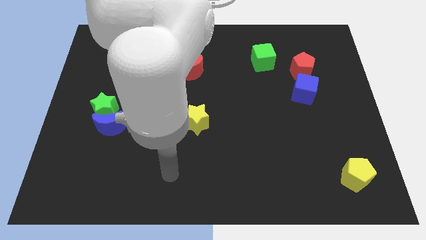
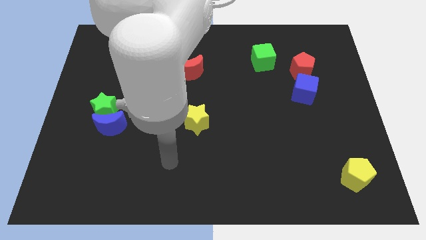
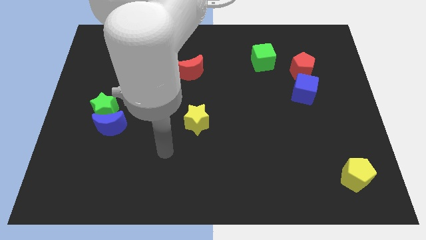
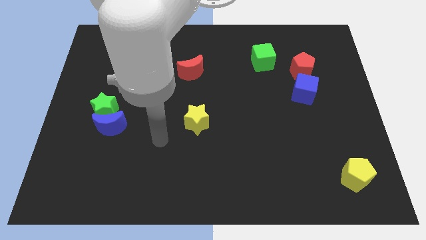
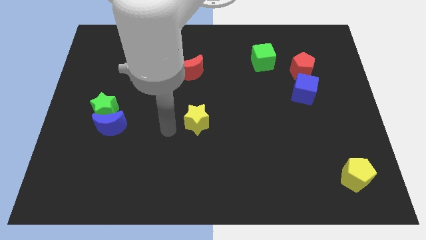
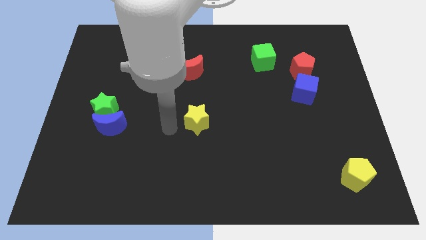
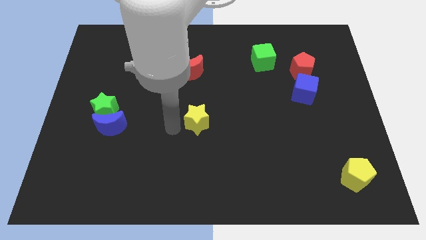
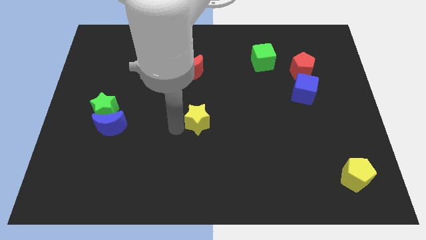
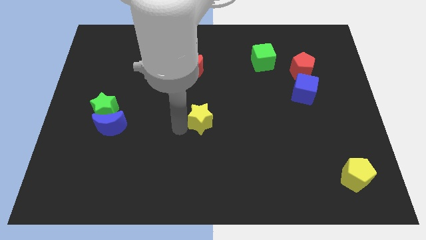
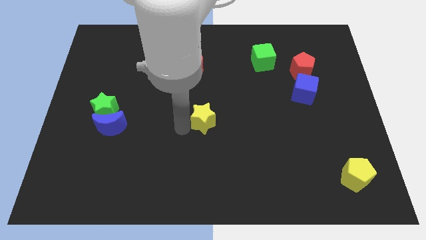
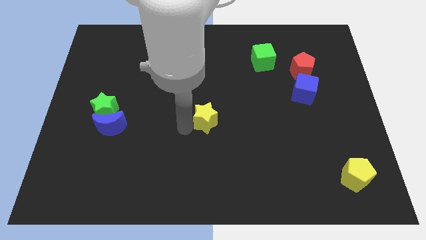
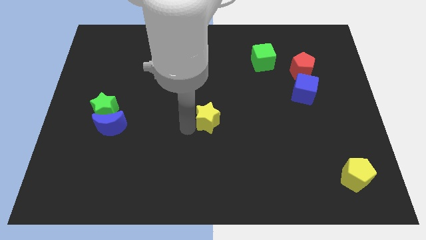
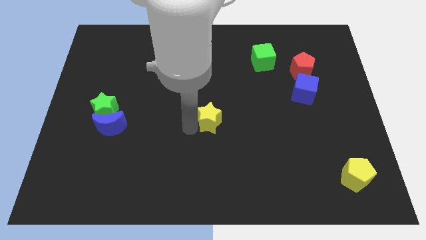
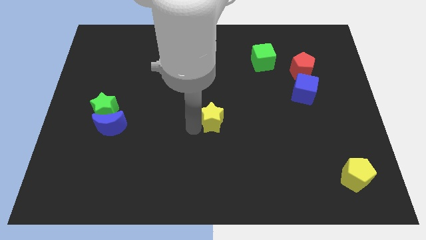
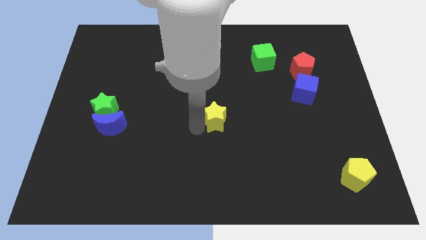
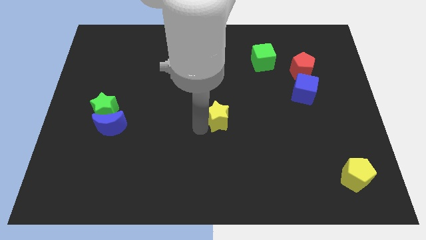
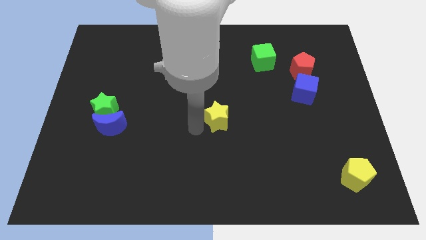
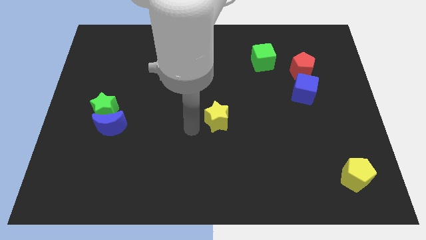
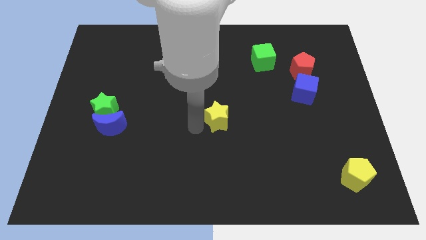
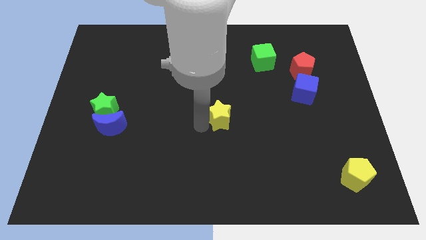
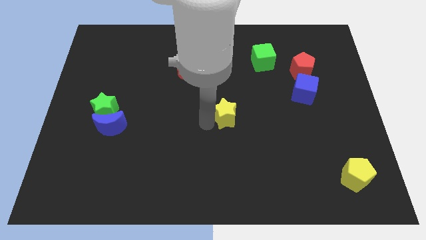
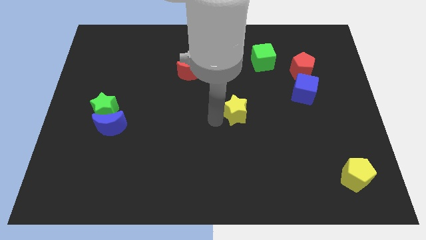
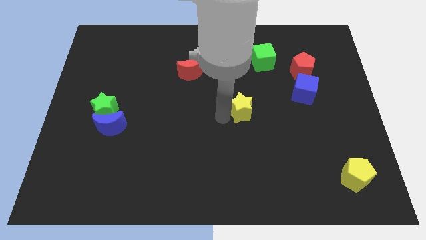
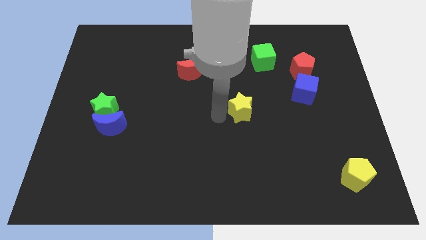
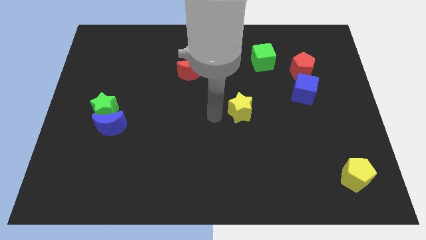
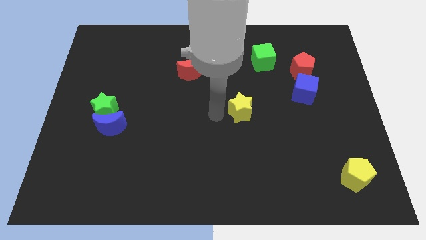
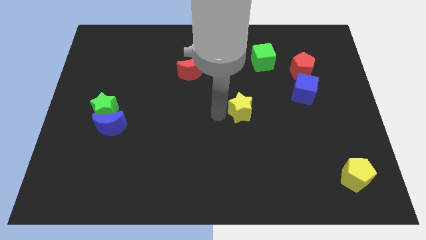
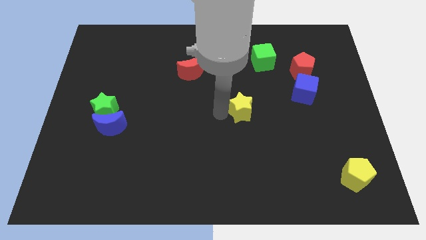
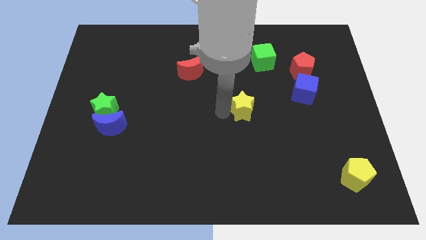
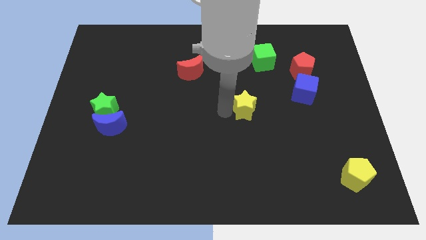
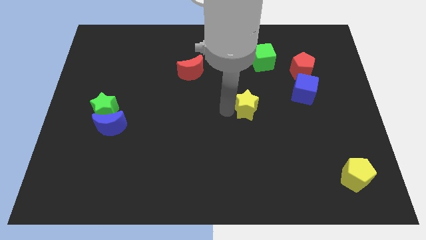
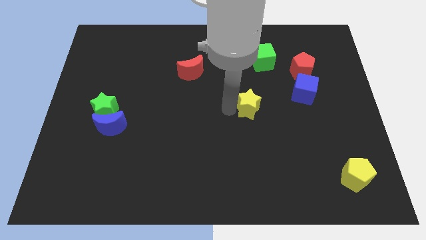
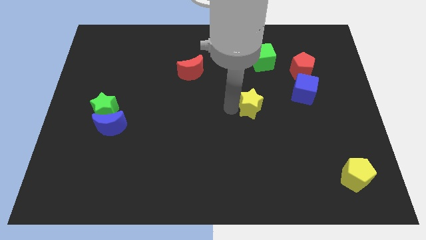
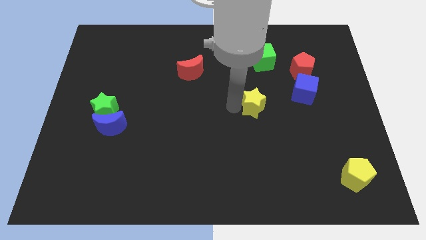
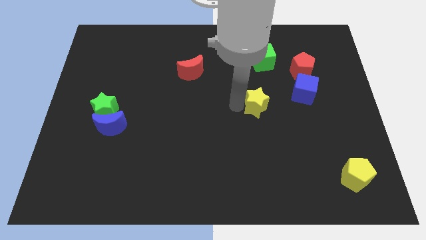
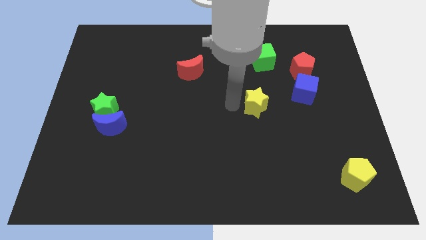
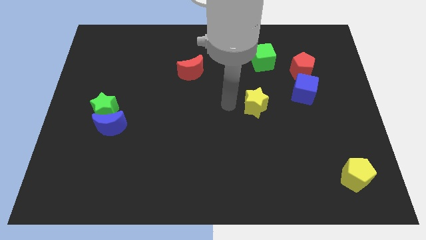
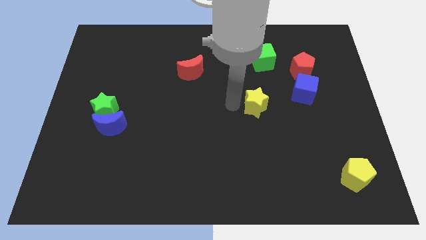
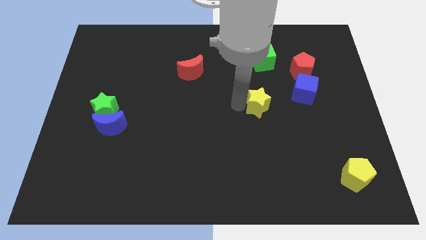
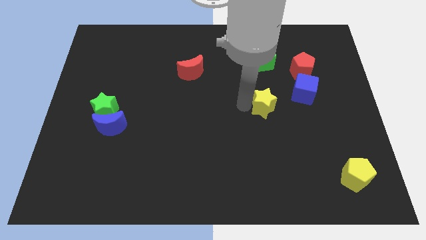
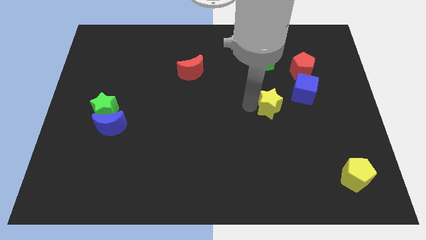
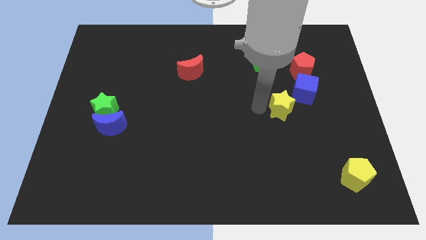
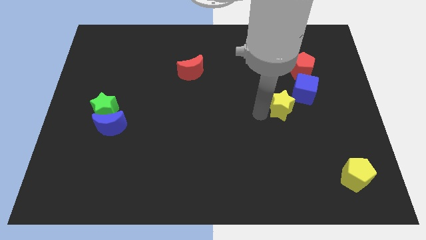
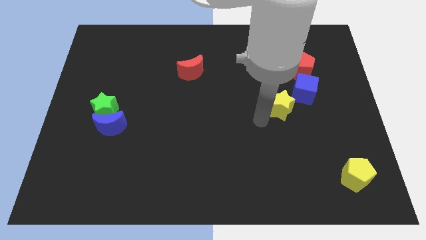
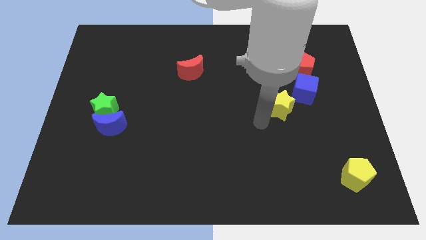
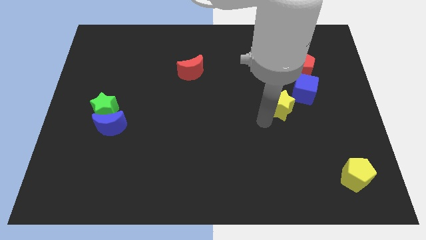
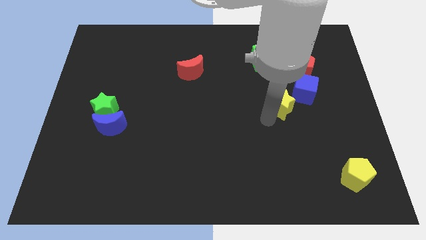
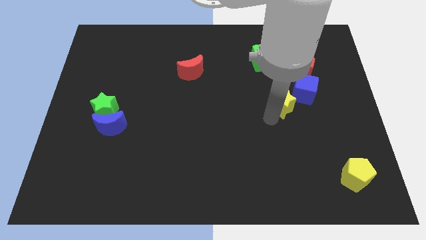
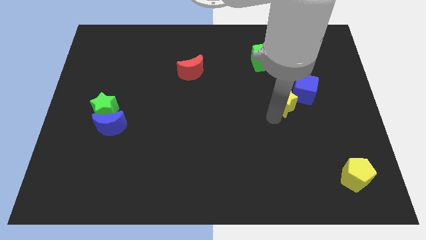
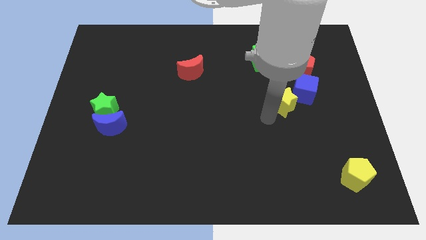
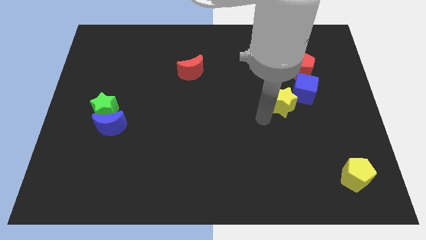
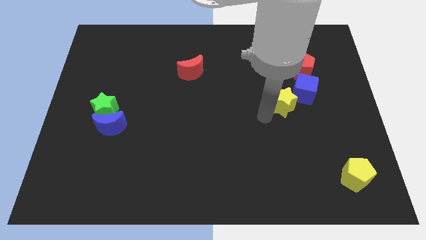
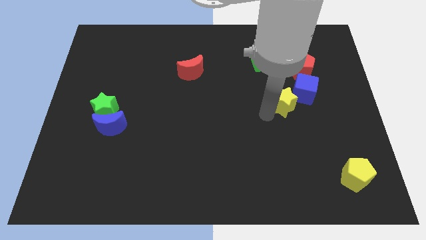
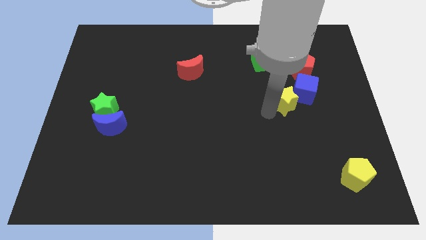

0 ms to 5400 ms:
slide the yellow star to the blue cube

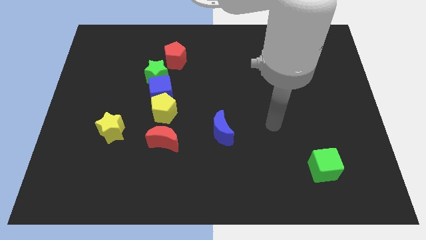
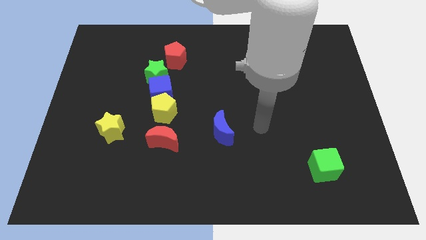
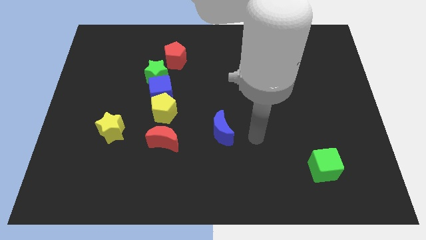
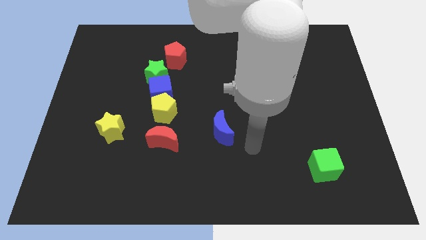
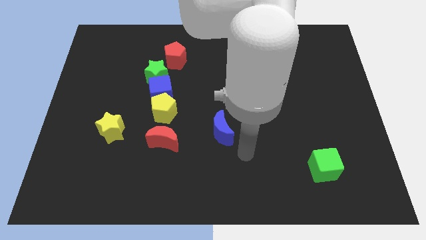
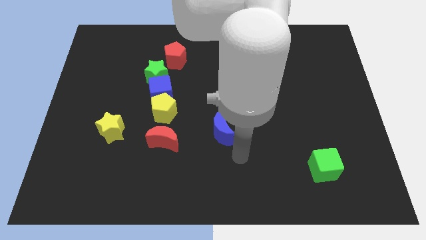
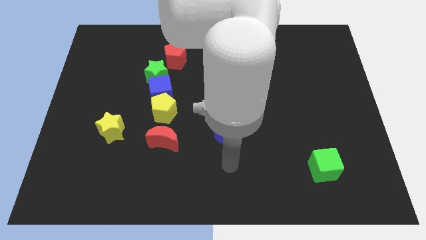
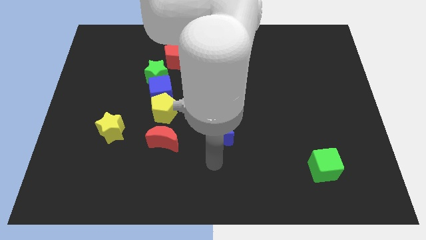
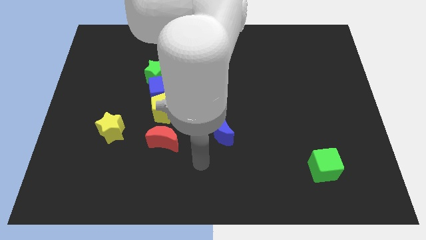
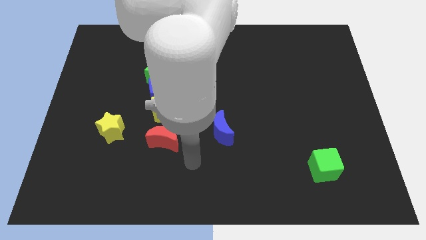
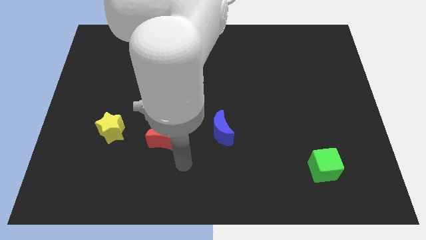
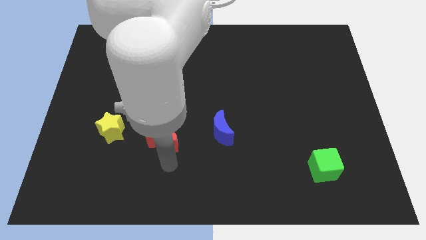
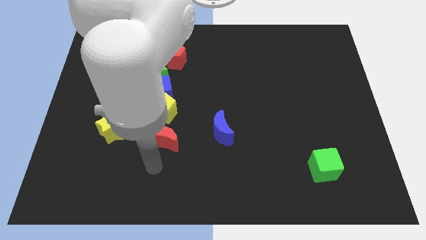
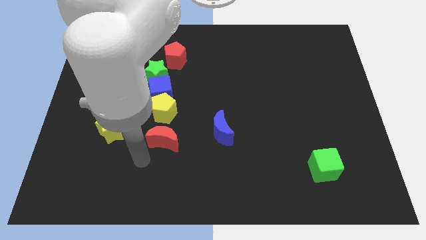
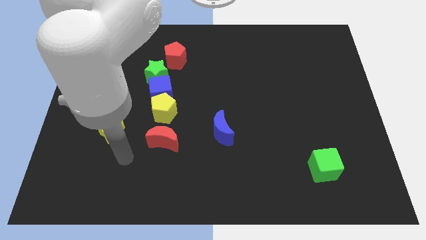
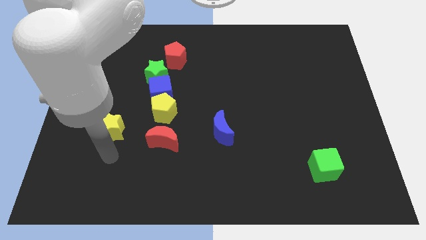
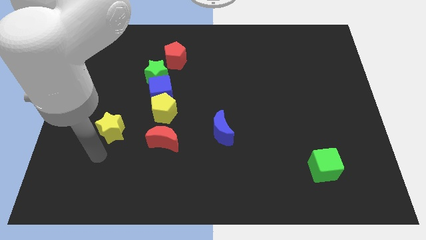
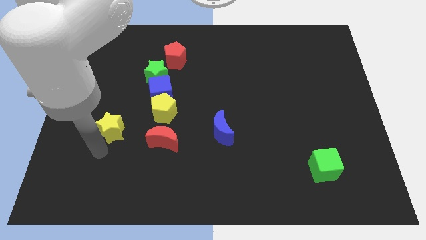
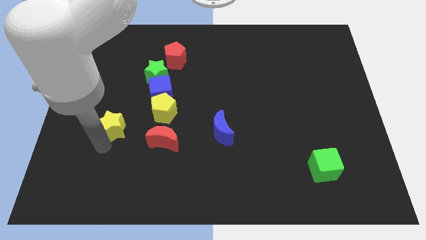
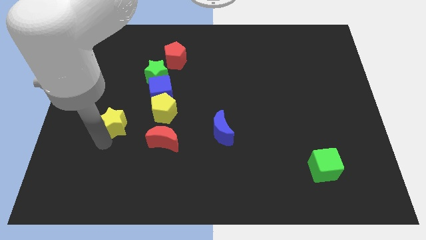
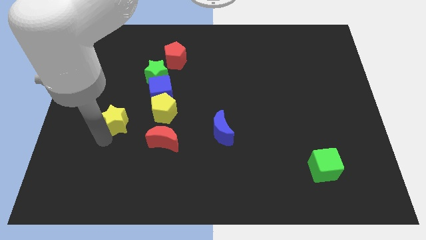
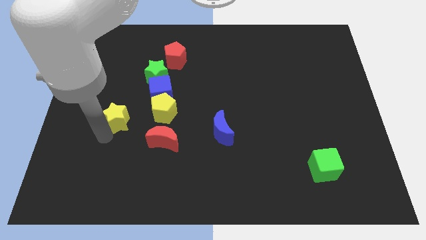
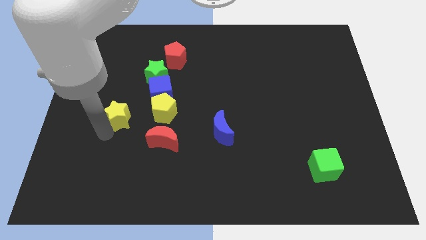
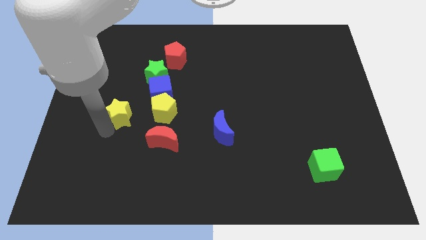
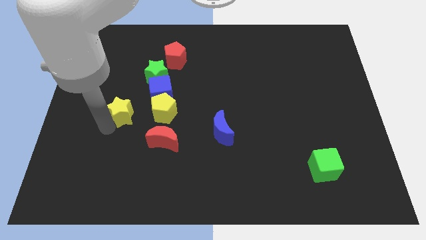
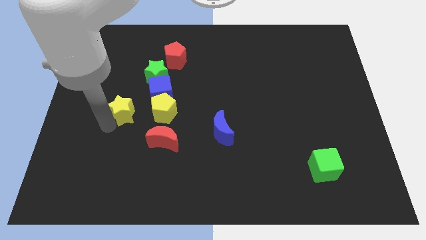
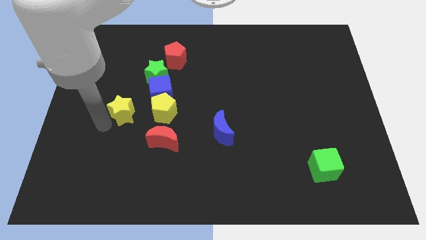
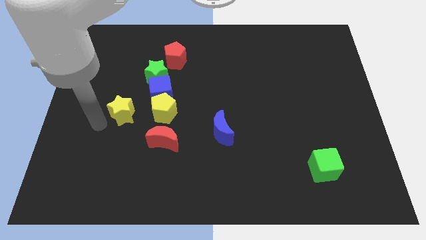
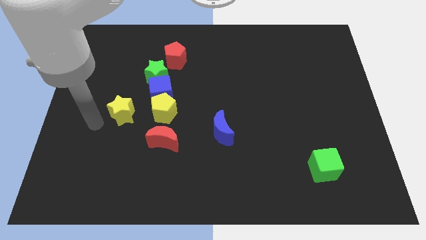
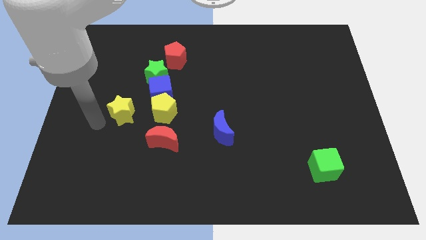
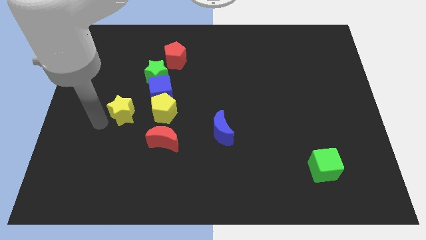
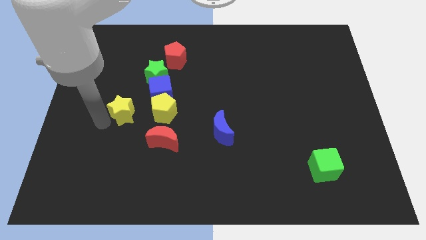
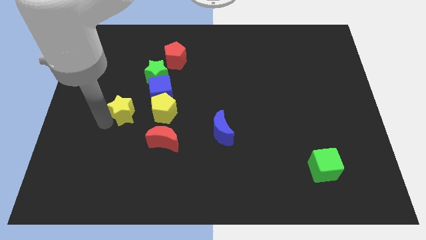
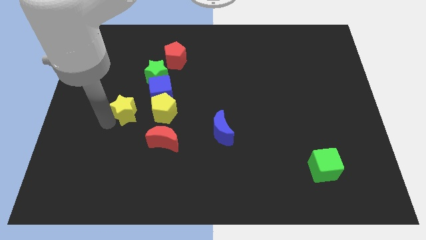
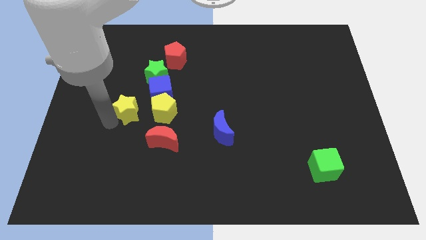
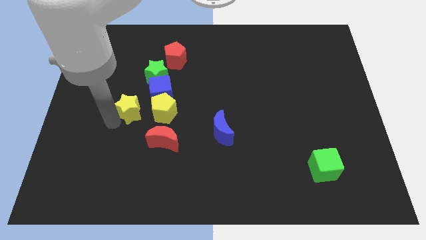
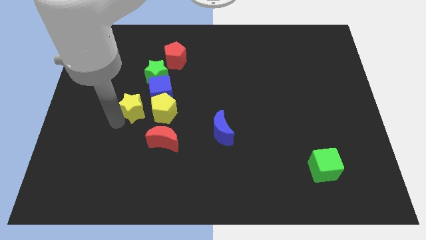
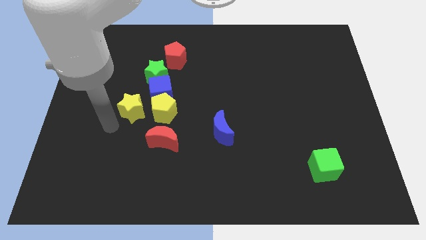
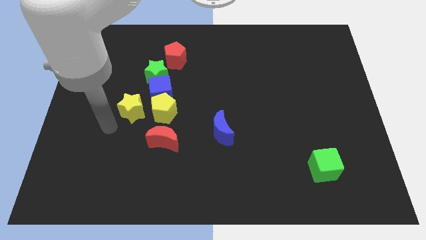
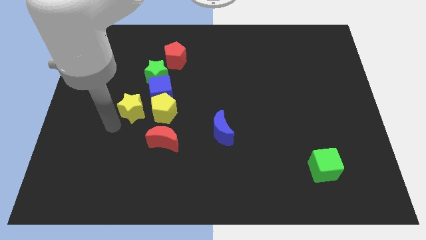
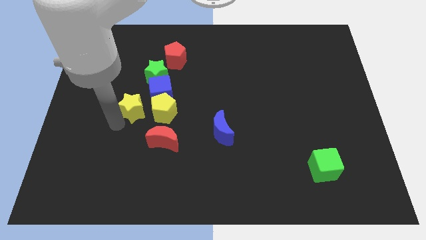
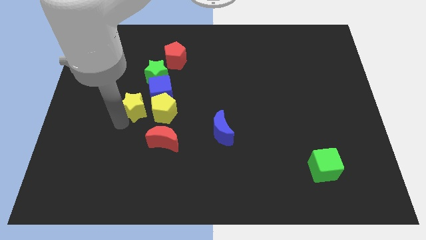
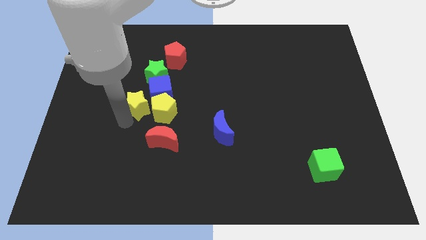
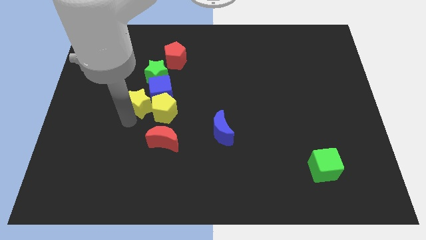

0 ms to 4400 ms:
put the yellow star to the blue cube
